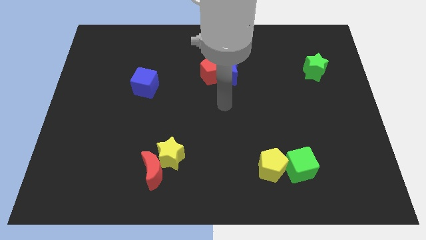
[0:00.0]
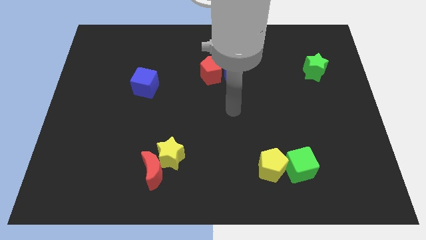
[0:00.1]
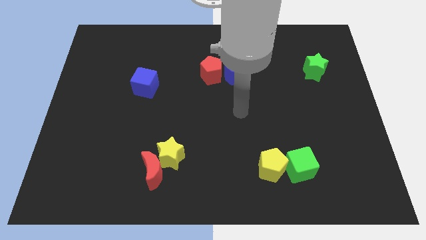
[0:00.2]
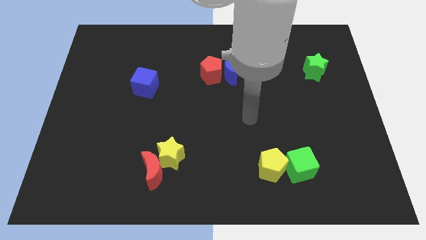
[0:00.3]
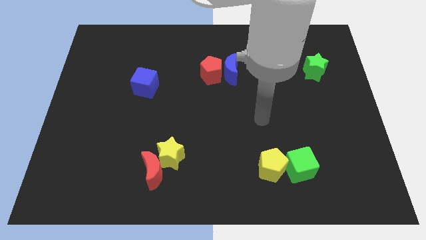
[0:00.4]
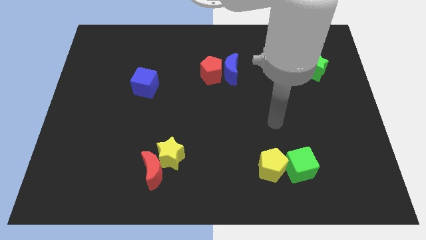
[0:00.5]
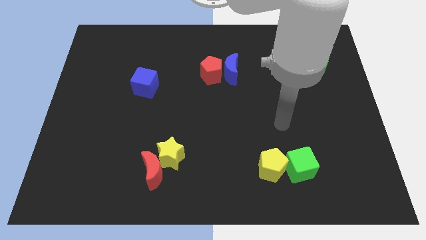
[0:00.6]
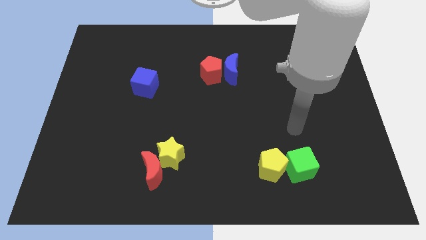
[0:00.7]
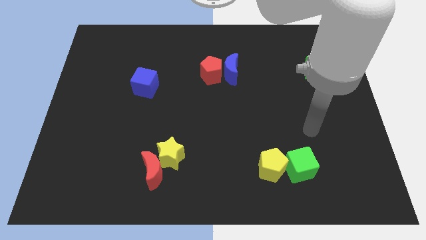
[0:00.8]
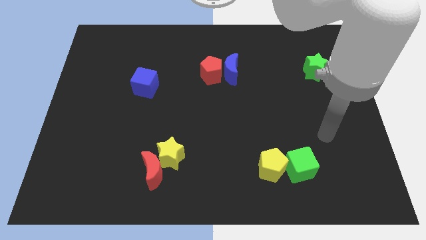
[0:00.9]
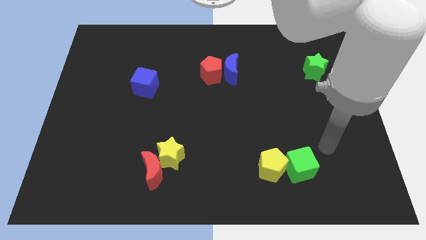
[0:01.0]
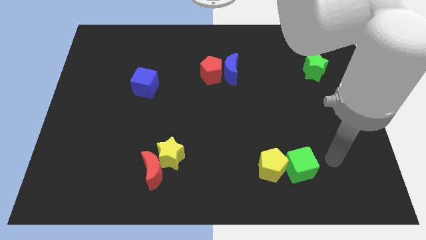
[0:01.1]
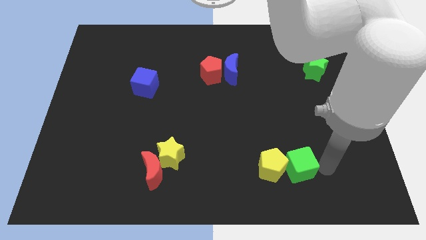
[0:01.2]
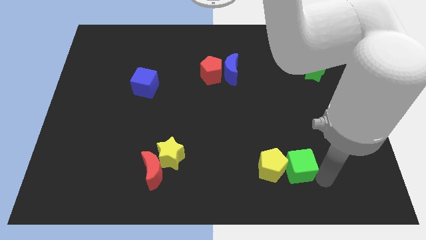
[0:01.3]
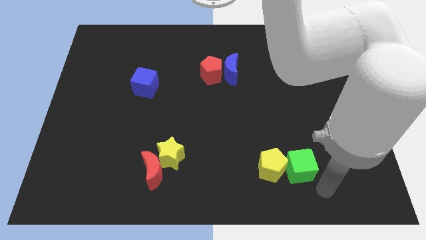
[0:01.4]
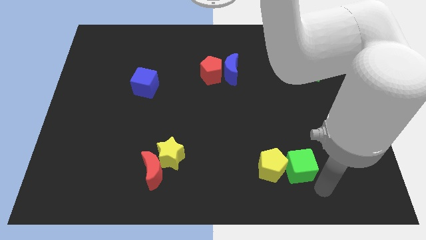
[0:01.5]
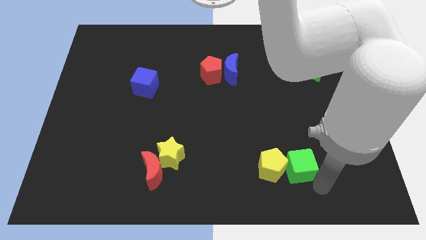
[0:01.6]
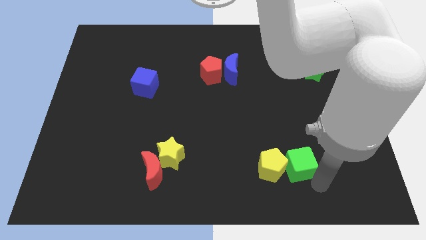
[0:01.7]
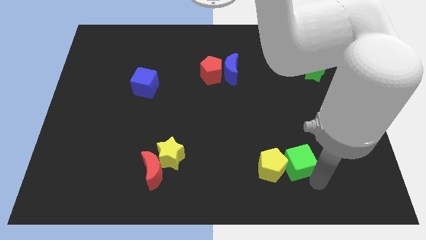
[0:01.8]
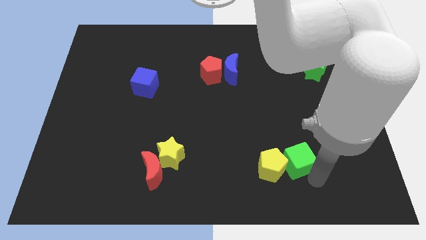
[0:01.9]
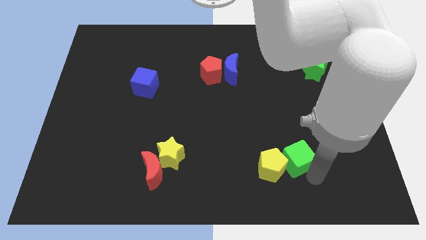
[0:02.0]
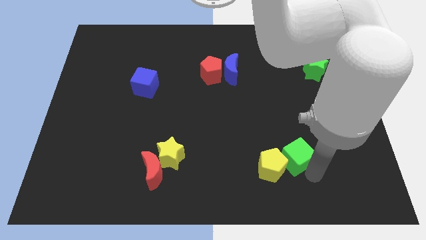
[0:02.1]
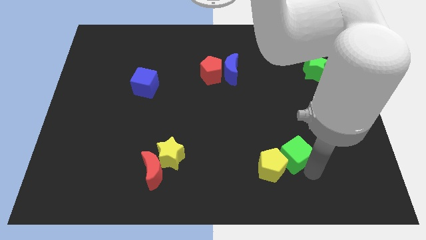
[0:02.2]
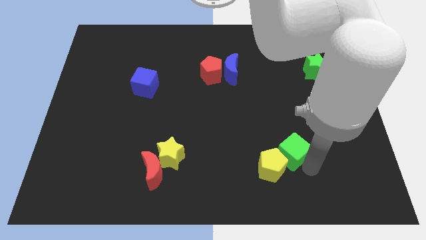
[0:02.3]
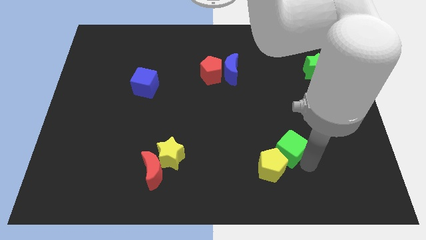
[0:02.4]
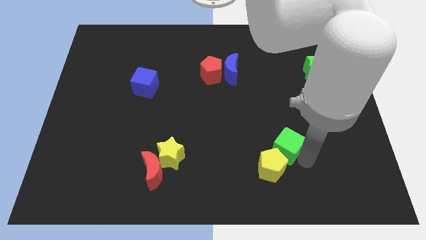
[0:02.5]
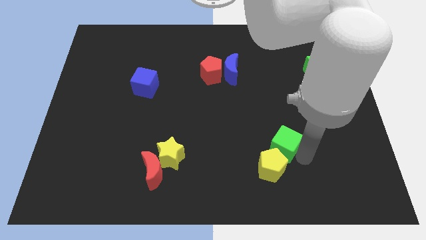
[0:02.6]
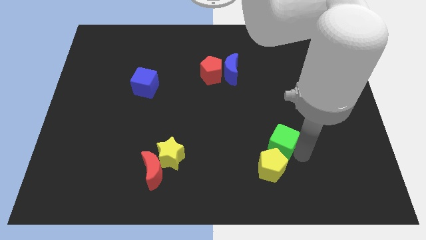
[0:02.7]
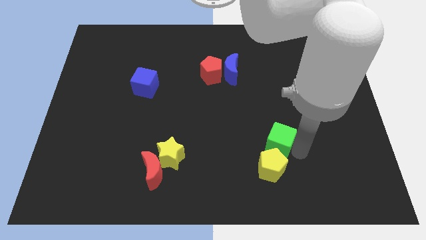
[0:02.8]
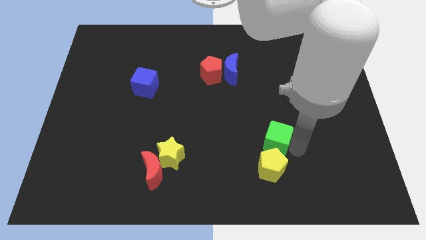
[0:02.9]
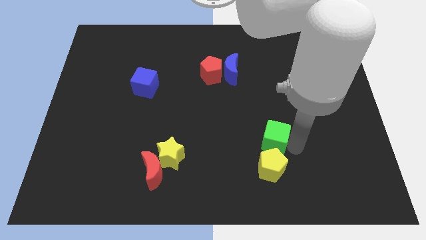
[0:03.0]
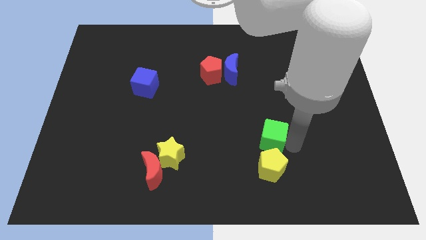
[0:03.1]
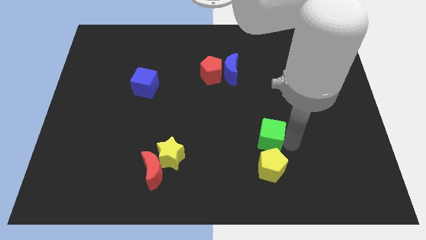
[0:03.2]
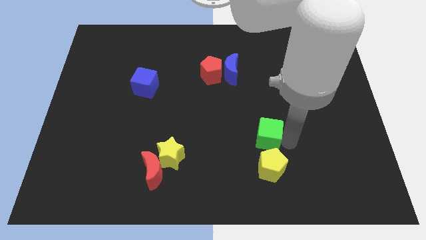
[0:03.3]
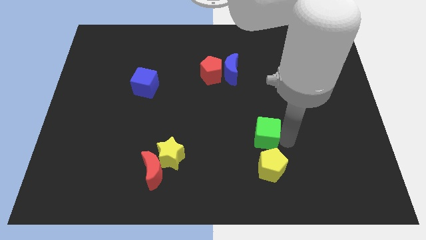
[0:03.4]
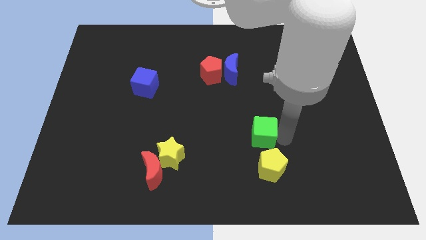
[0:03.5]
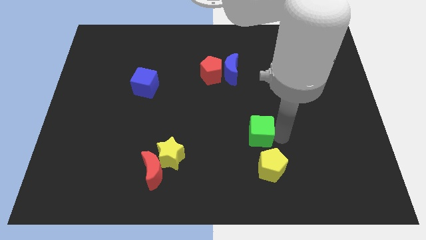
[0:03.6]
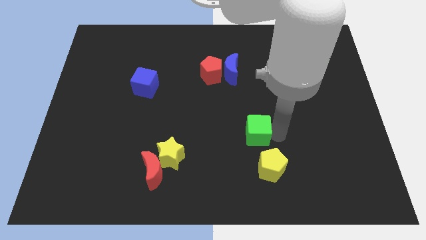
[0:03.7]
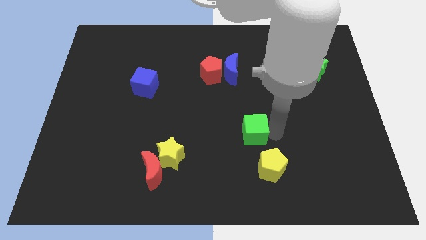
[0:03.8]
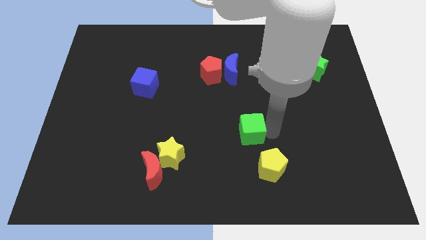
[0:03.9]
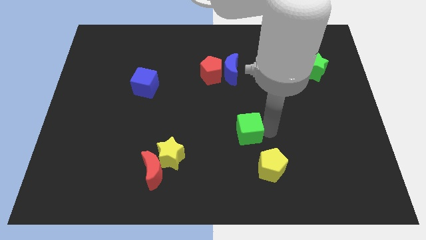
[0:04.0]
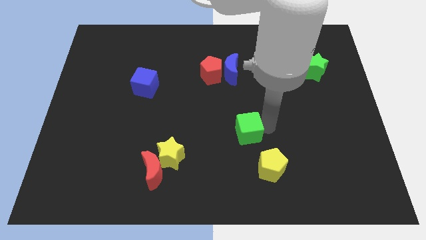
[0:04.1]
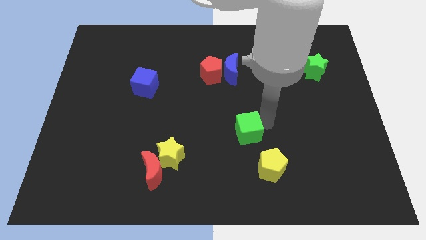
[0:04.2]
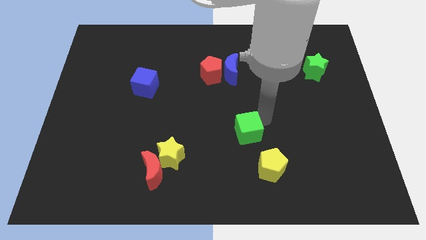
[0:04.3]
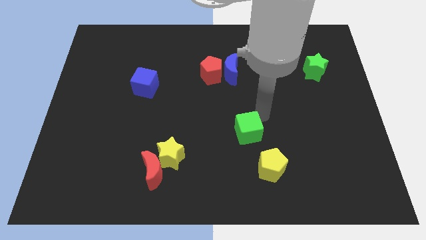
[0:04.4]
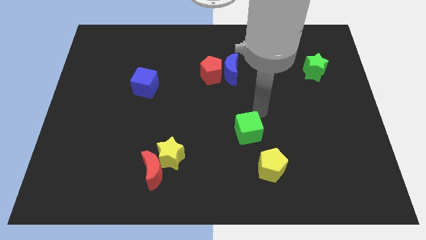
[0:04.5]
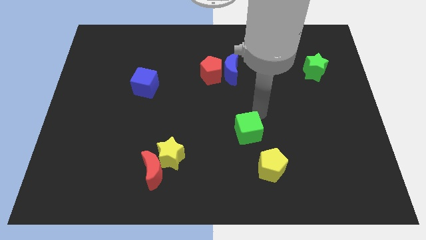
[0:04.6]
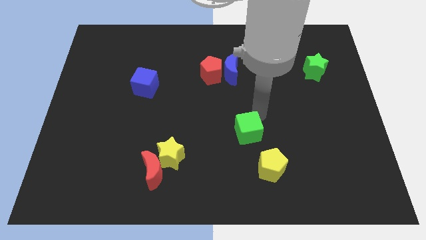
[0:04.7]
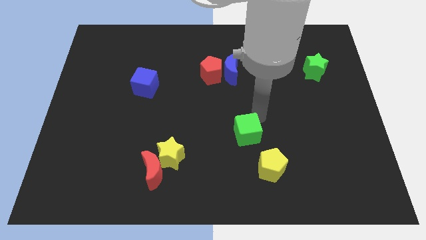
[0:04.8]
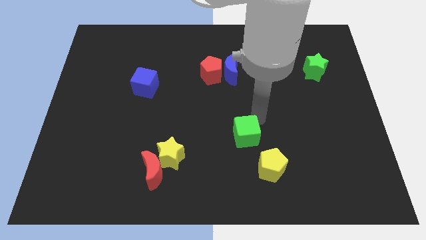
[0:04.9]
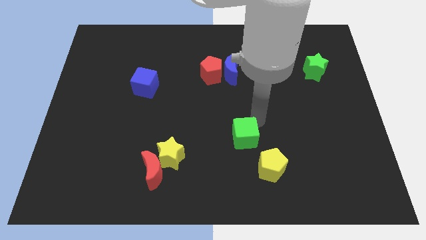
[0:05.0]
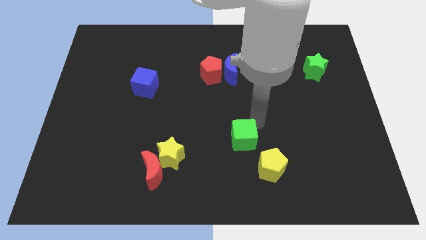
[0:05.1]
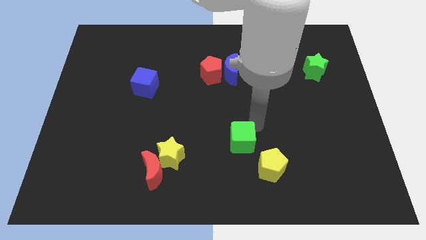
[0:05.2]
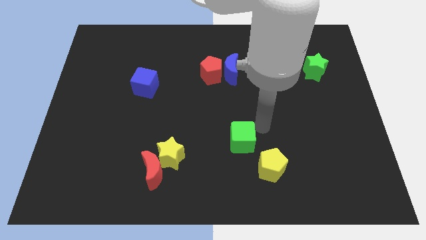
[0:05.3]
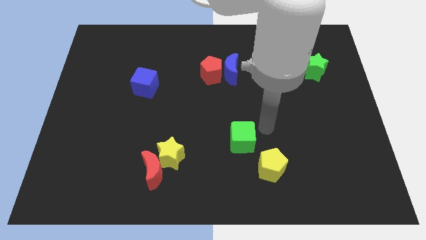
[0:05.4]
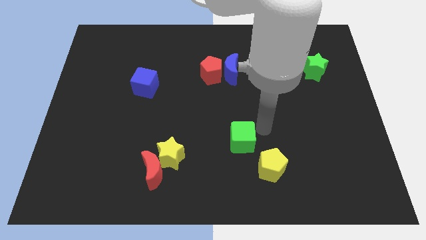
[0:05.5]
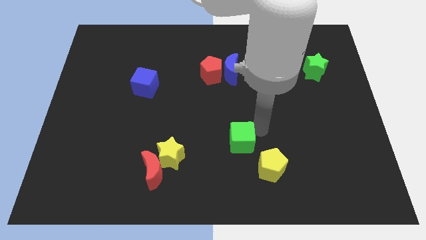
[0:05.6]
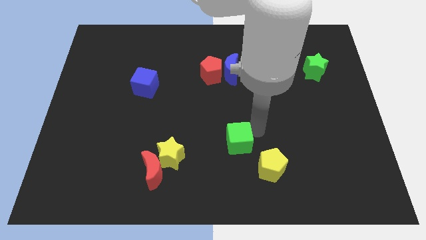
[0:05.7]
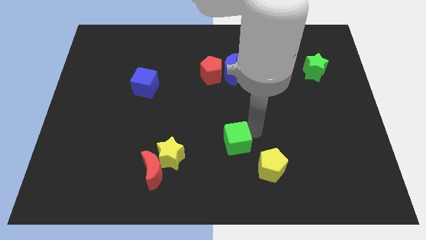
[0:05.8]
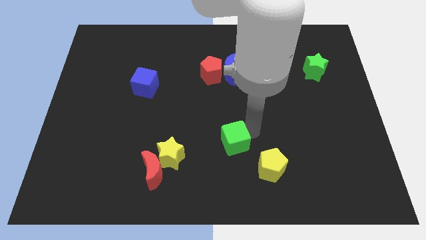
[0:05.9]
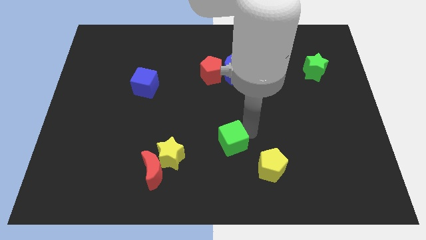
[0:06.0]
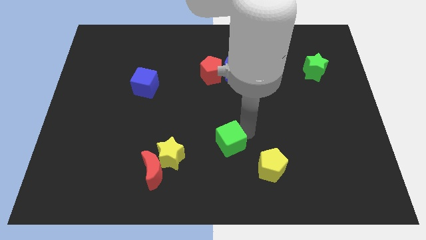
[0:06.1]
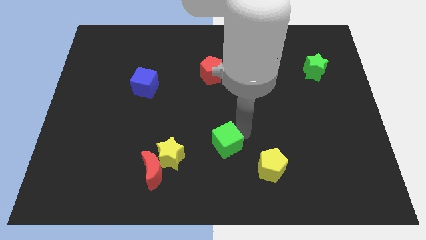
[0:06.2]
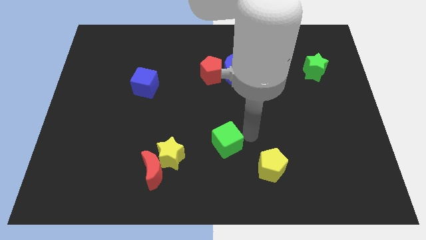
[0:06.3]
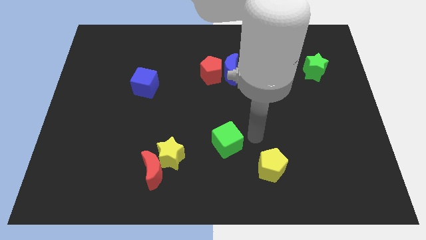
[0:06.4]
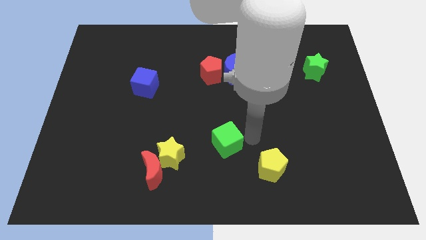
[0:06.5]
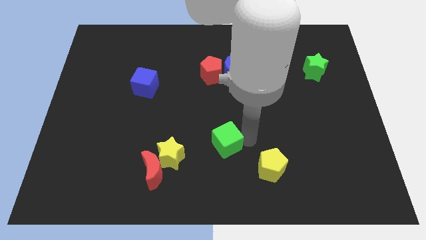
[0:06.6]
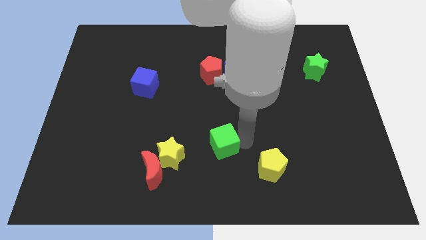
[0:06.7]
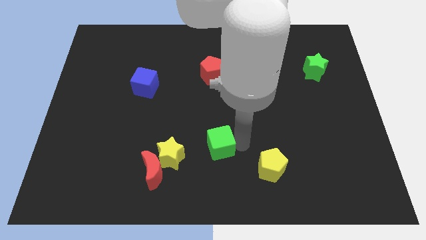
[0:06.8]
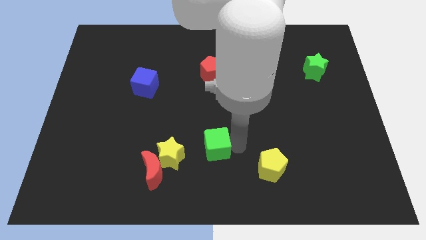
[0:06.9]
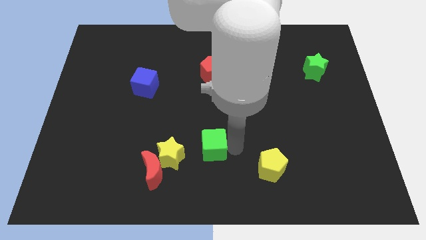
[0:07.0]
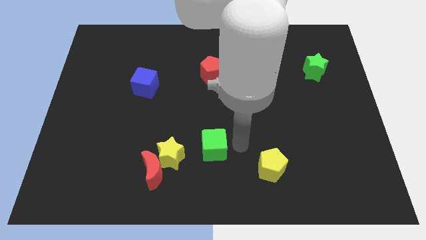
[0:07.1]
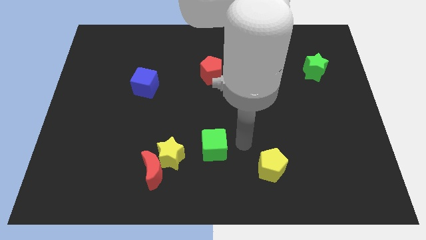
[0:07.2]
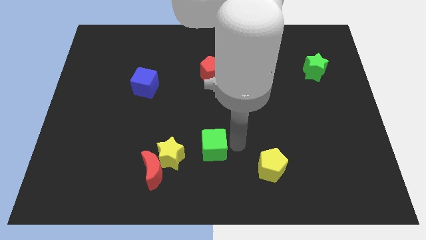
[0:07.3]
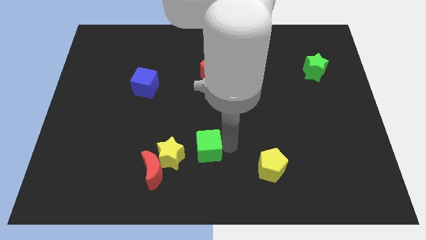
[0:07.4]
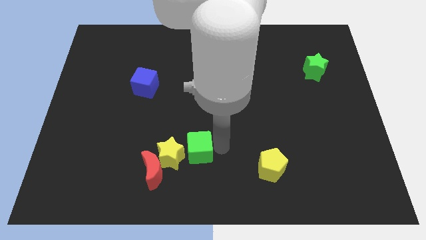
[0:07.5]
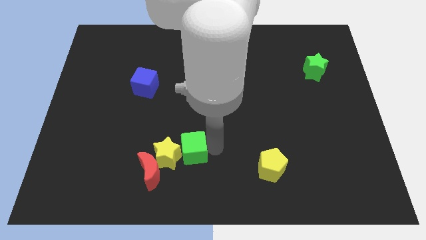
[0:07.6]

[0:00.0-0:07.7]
push the green cube towards the yellow star

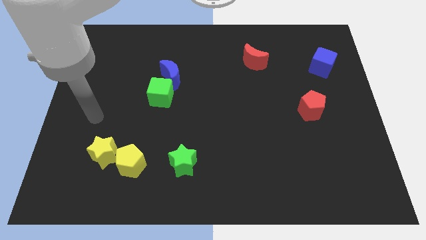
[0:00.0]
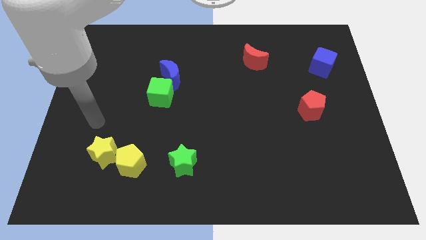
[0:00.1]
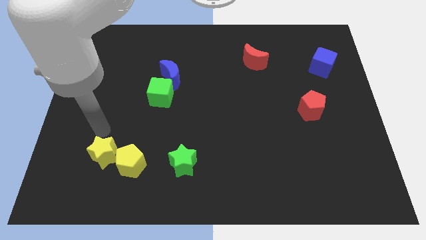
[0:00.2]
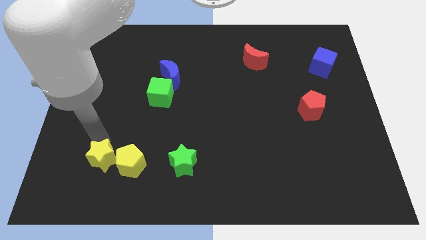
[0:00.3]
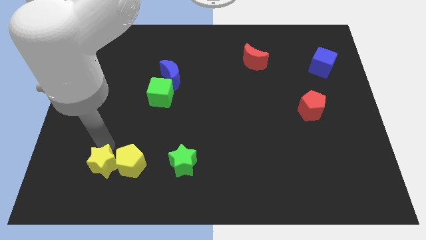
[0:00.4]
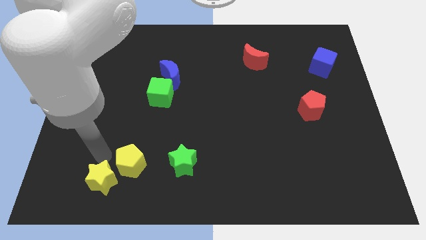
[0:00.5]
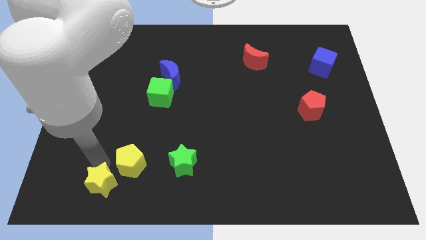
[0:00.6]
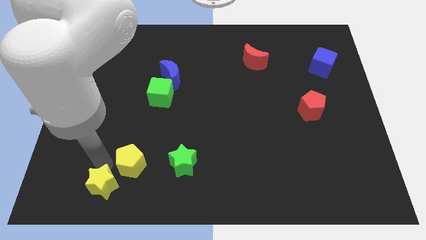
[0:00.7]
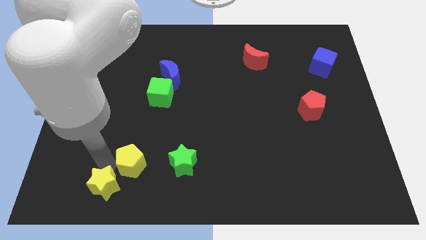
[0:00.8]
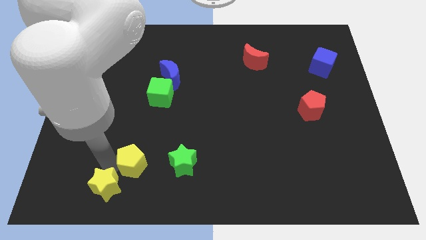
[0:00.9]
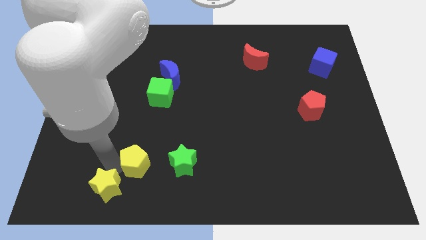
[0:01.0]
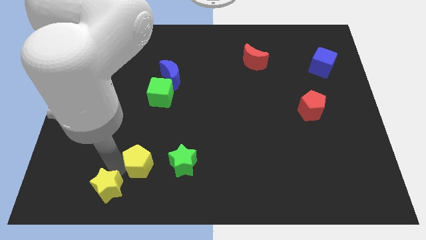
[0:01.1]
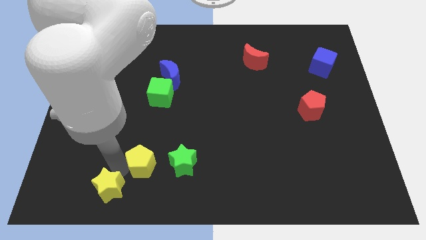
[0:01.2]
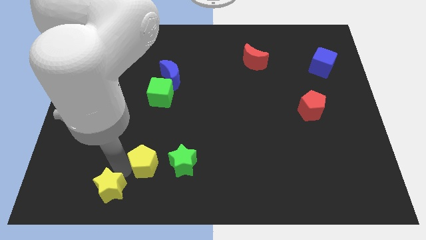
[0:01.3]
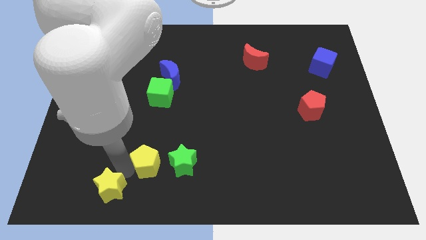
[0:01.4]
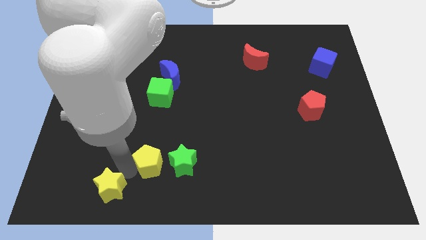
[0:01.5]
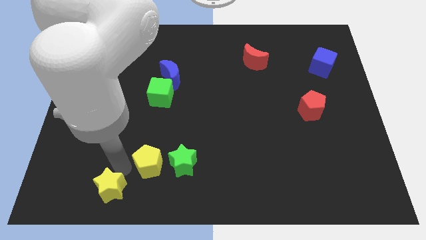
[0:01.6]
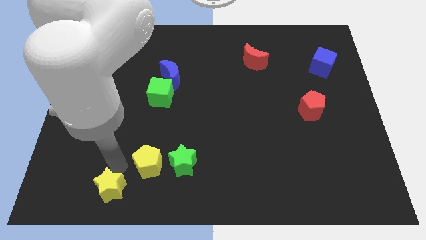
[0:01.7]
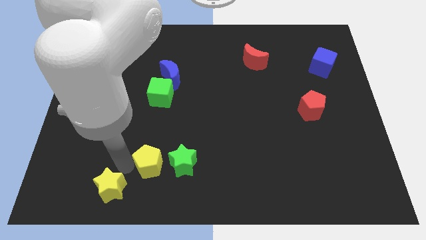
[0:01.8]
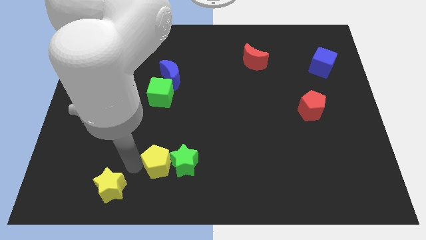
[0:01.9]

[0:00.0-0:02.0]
put the yellow pentagon close to the green star
